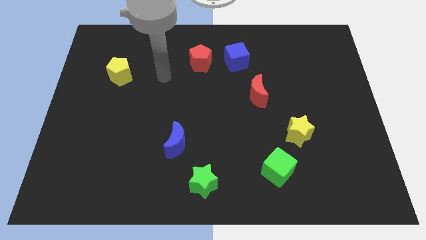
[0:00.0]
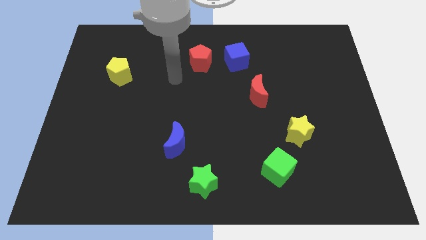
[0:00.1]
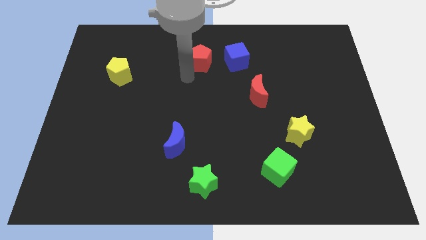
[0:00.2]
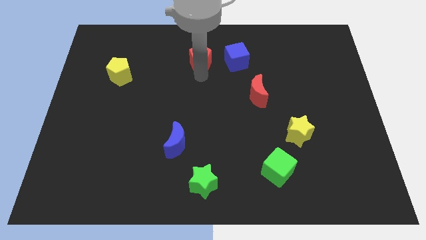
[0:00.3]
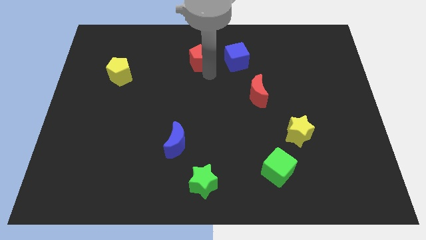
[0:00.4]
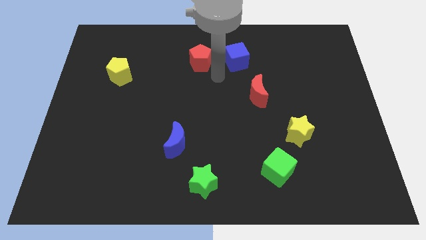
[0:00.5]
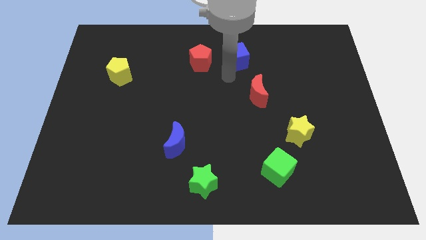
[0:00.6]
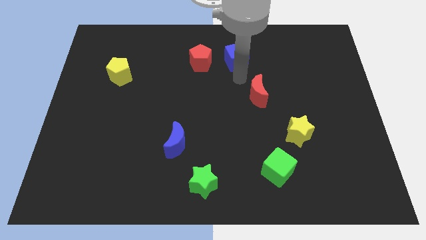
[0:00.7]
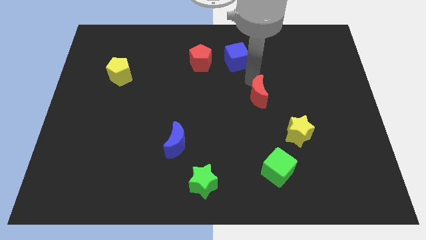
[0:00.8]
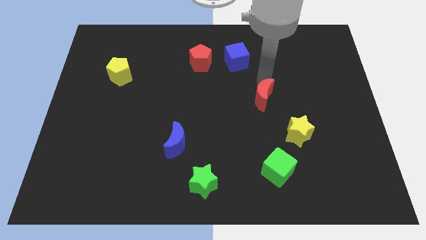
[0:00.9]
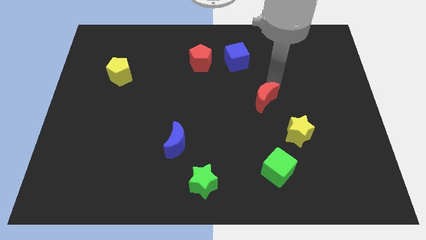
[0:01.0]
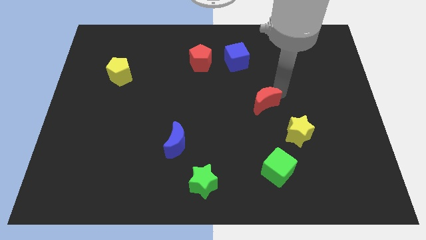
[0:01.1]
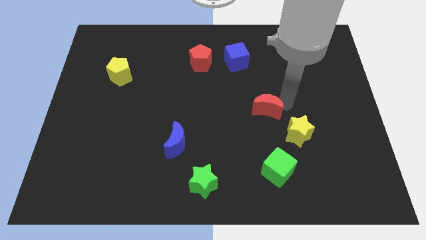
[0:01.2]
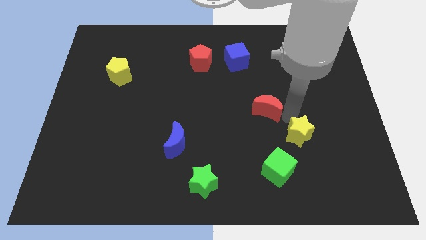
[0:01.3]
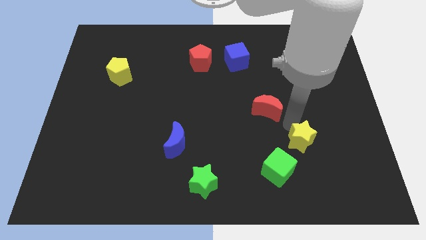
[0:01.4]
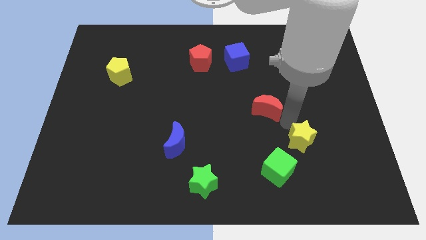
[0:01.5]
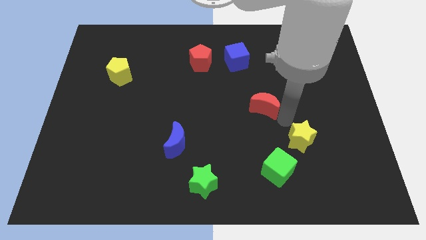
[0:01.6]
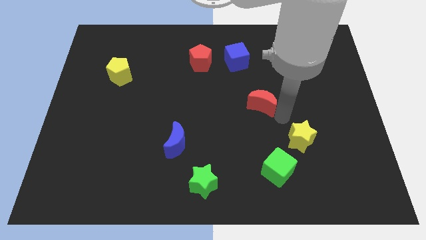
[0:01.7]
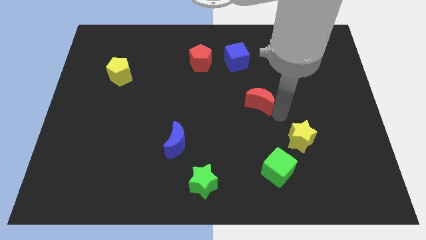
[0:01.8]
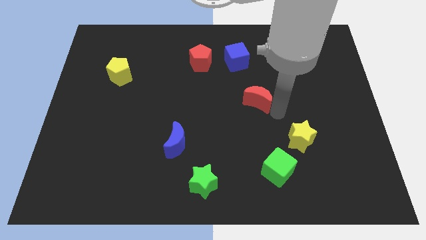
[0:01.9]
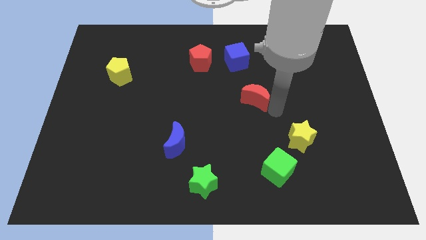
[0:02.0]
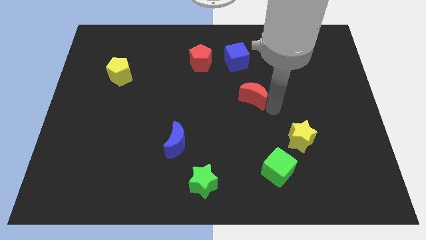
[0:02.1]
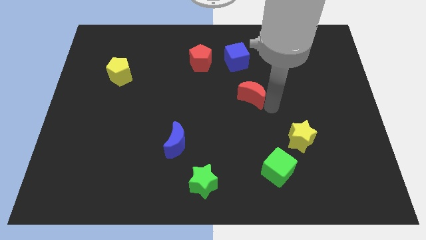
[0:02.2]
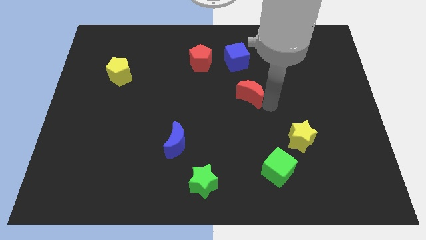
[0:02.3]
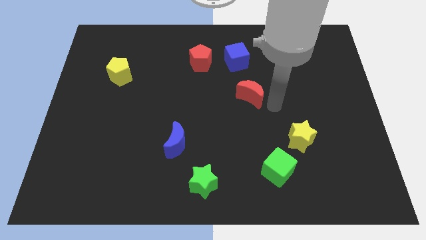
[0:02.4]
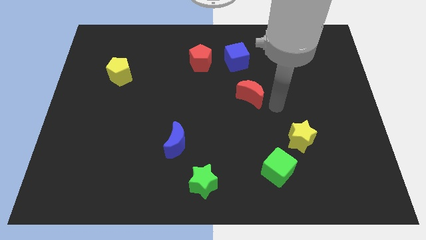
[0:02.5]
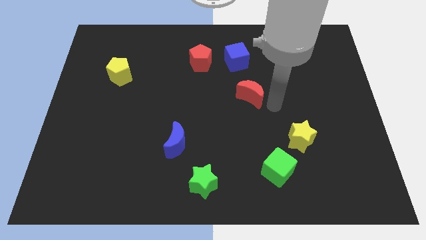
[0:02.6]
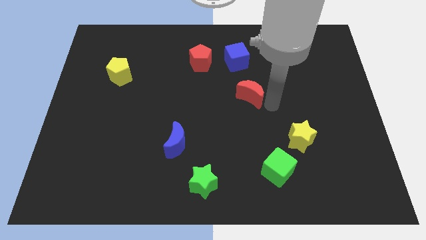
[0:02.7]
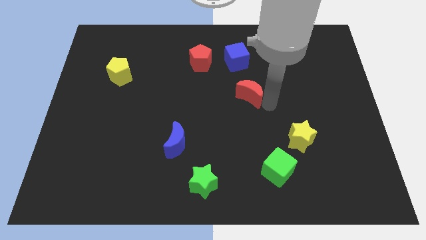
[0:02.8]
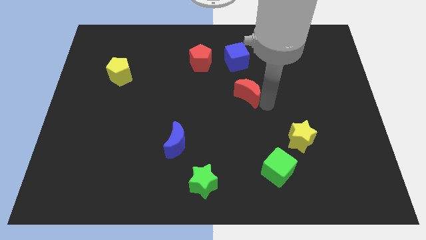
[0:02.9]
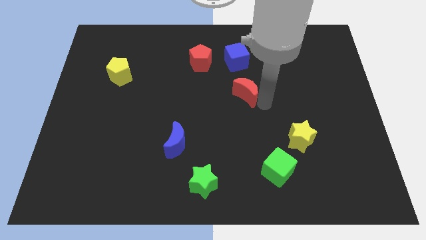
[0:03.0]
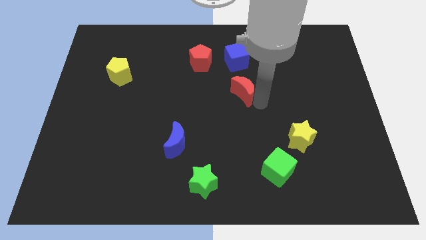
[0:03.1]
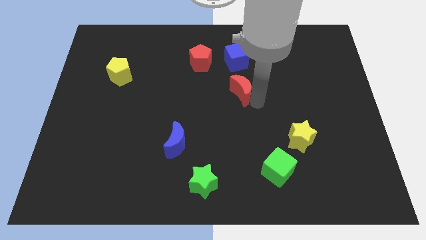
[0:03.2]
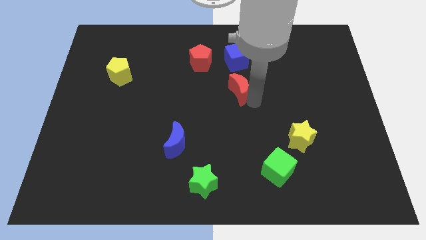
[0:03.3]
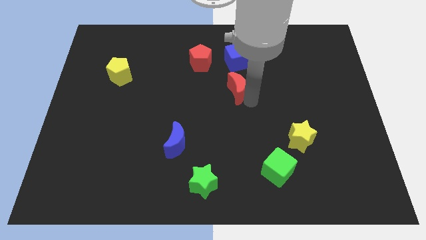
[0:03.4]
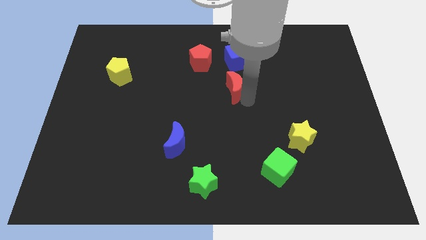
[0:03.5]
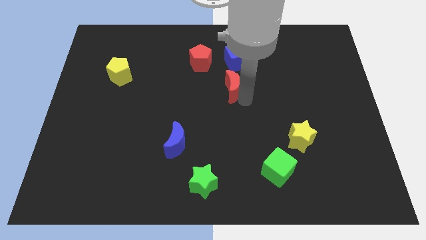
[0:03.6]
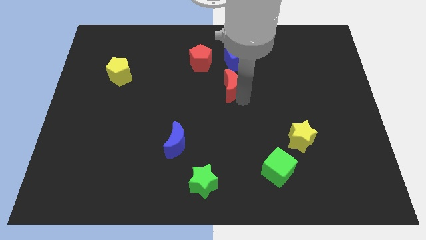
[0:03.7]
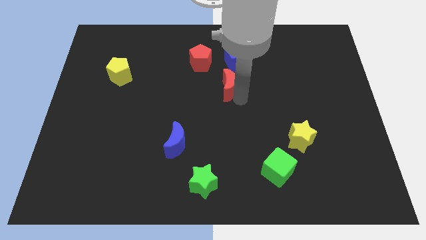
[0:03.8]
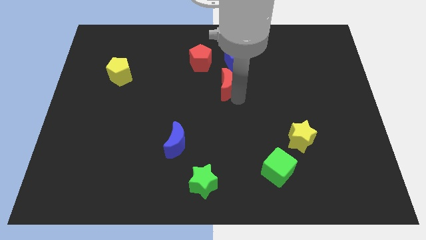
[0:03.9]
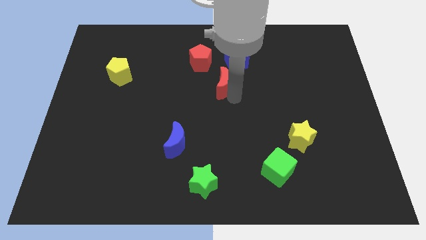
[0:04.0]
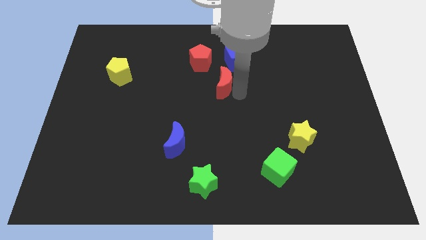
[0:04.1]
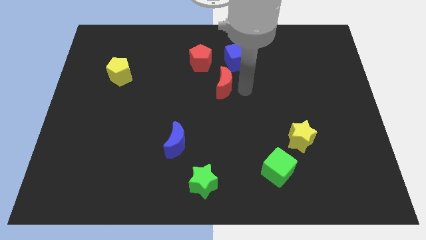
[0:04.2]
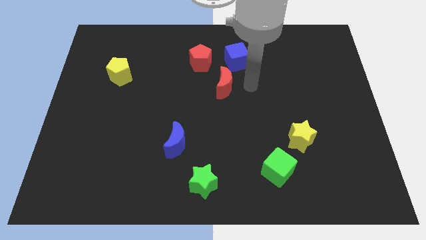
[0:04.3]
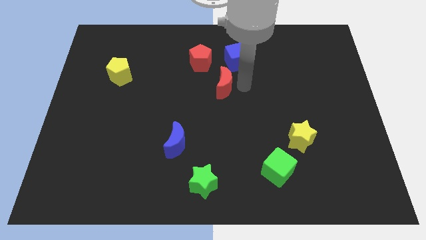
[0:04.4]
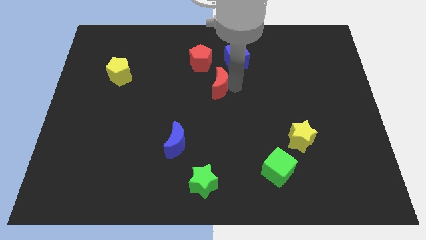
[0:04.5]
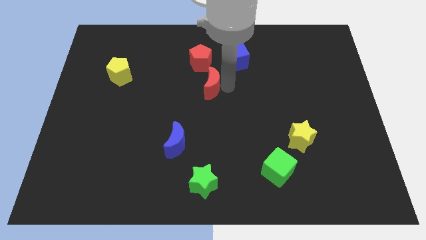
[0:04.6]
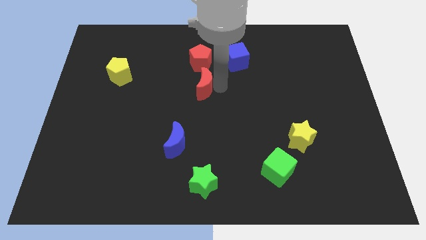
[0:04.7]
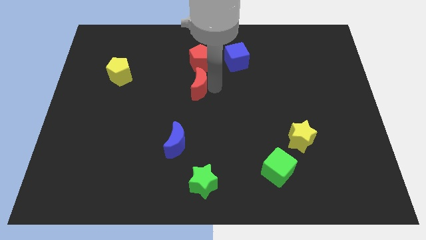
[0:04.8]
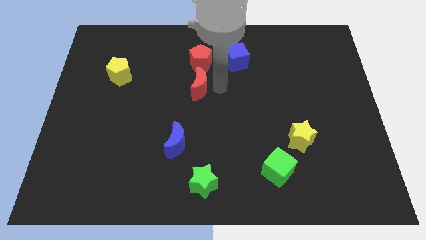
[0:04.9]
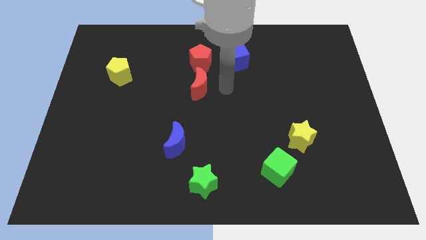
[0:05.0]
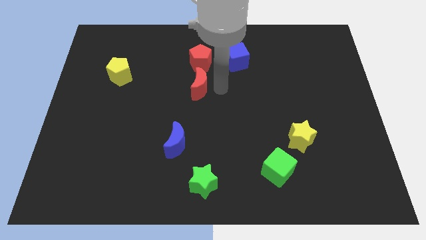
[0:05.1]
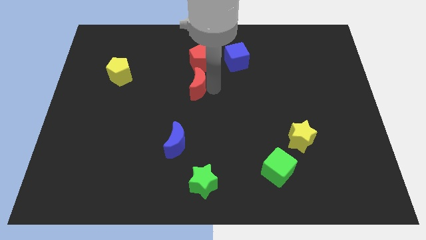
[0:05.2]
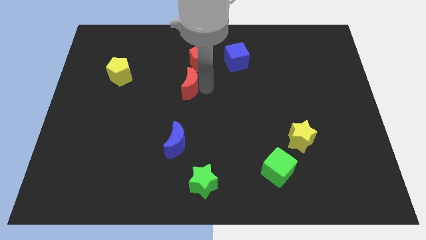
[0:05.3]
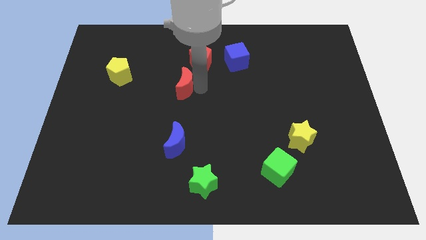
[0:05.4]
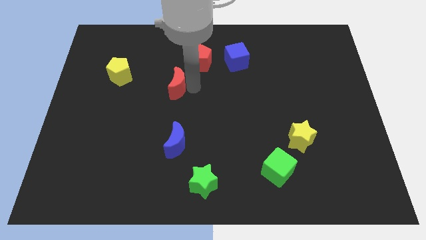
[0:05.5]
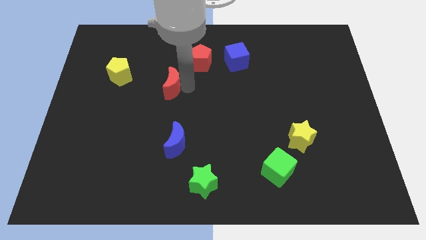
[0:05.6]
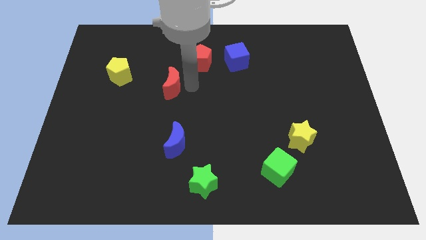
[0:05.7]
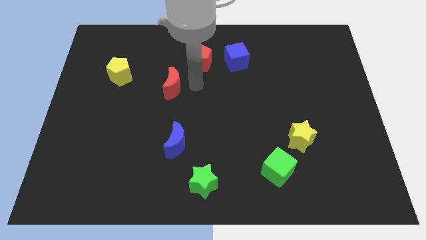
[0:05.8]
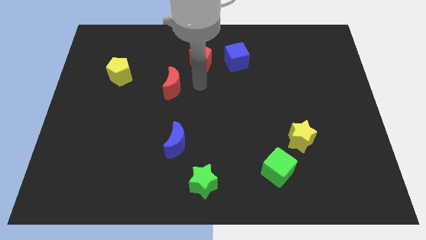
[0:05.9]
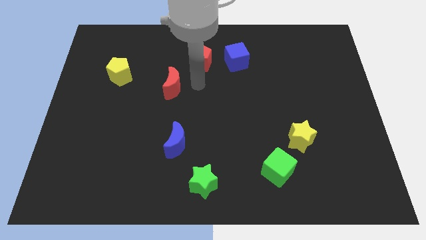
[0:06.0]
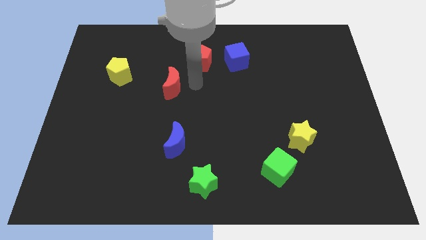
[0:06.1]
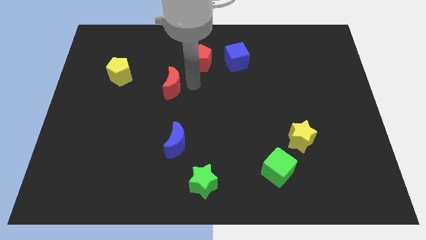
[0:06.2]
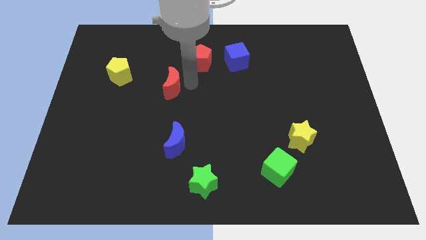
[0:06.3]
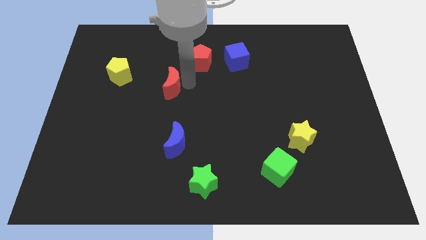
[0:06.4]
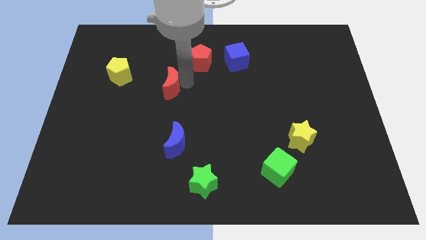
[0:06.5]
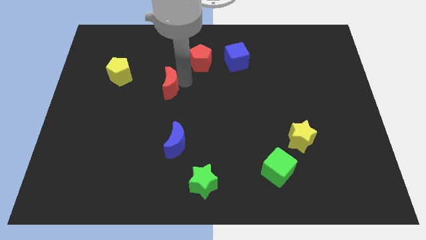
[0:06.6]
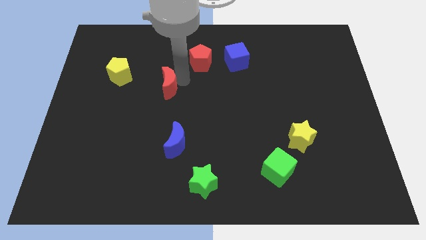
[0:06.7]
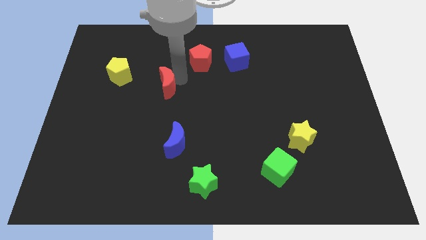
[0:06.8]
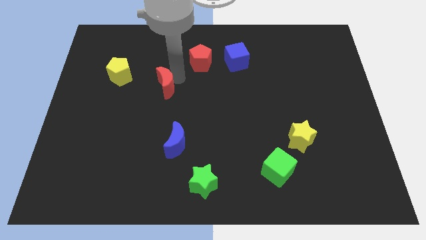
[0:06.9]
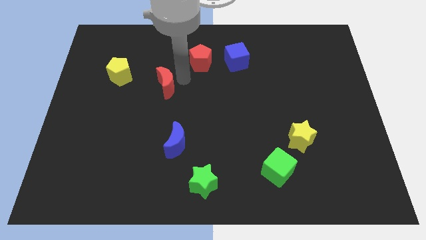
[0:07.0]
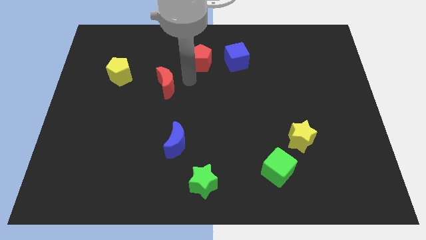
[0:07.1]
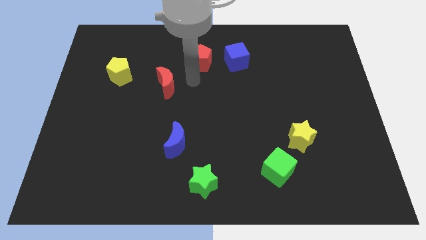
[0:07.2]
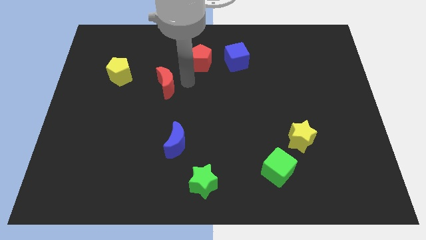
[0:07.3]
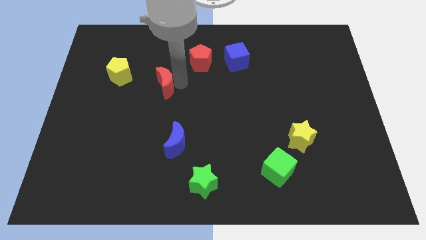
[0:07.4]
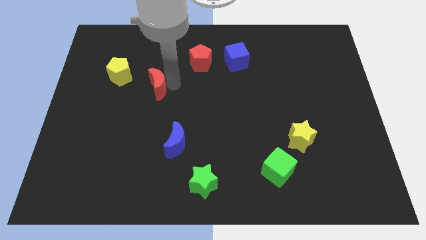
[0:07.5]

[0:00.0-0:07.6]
push the red moon to the bottom right of the yellow pentagon
